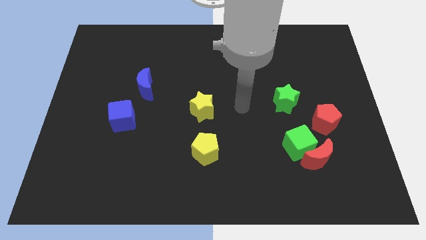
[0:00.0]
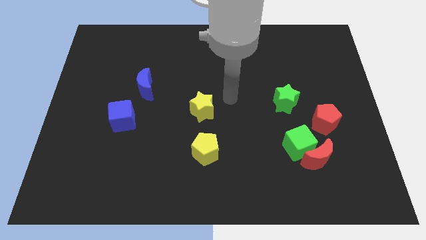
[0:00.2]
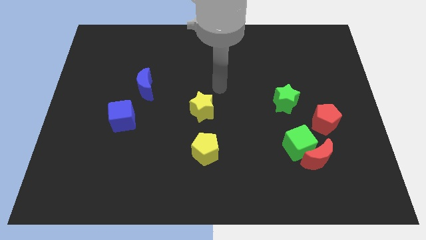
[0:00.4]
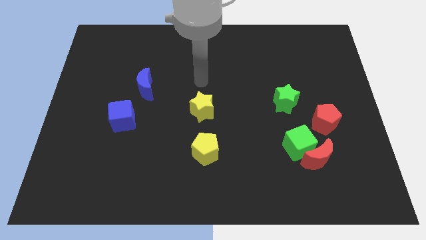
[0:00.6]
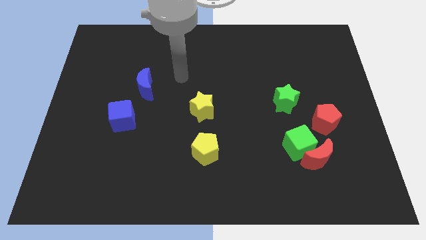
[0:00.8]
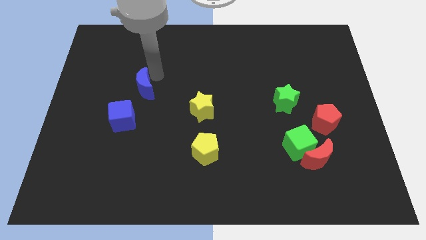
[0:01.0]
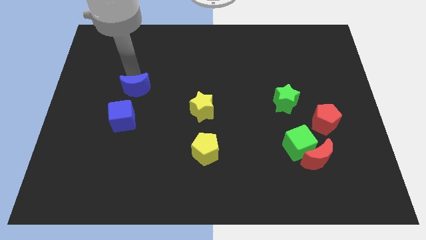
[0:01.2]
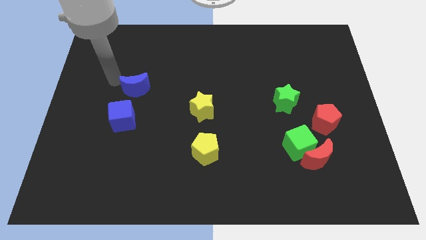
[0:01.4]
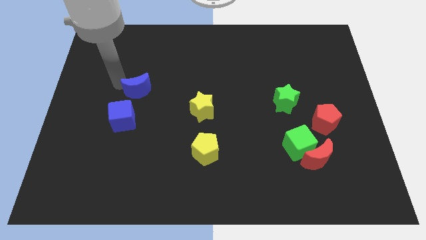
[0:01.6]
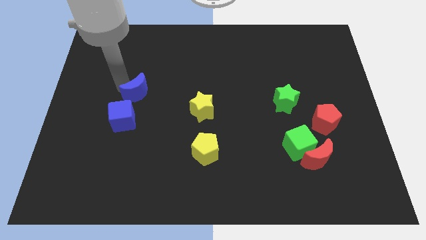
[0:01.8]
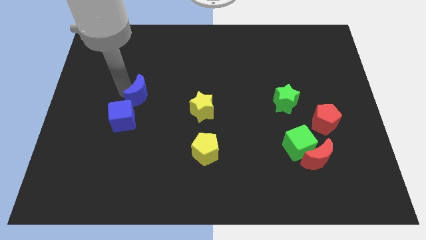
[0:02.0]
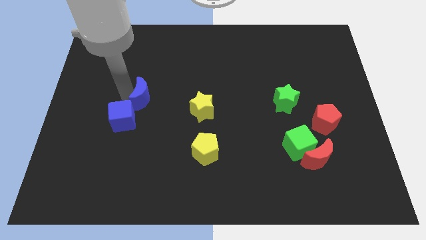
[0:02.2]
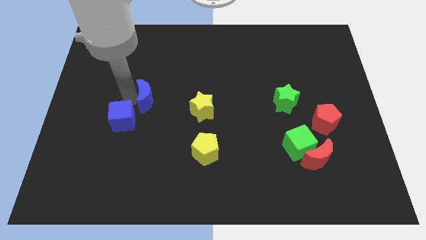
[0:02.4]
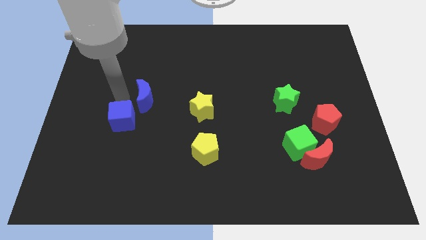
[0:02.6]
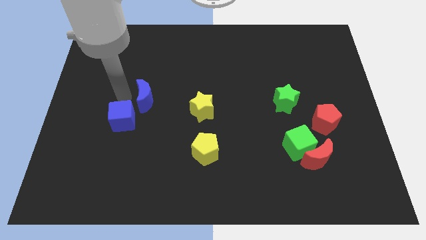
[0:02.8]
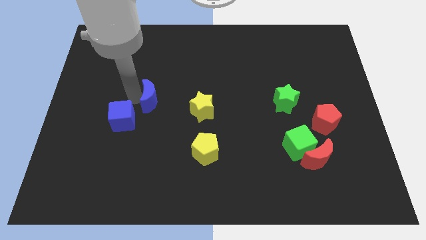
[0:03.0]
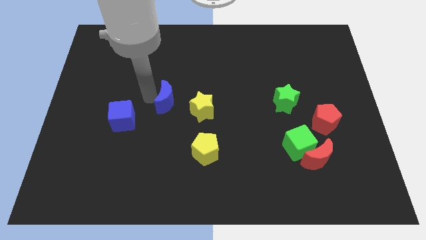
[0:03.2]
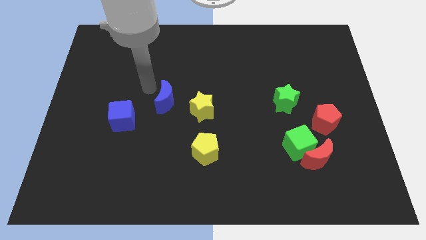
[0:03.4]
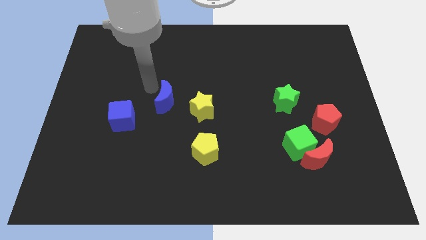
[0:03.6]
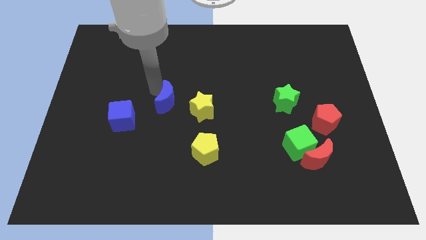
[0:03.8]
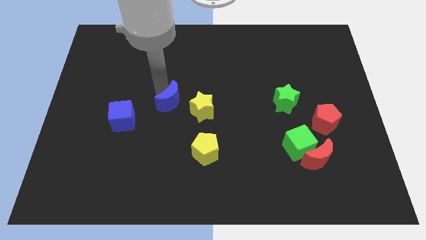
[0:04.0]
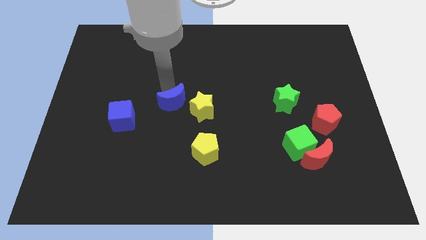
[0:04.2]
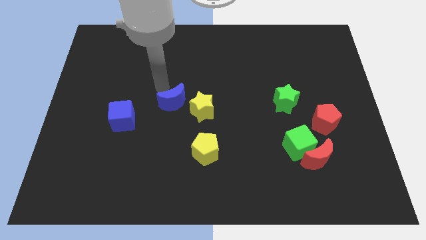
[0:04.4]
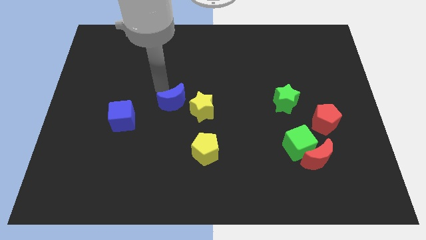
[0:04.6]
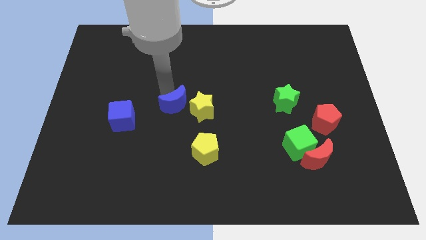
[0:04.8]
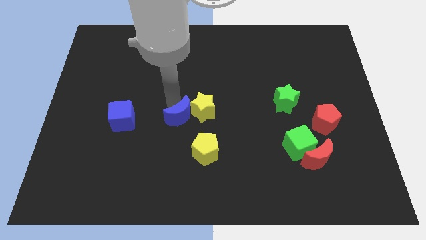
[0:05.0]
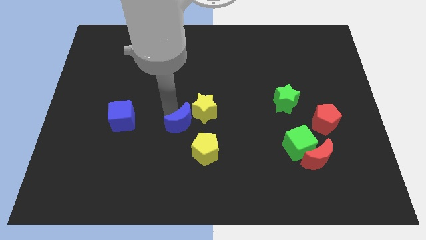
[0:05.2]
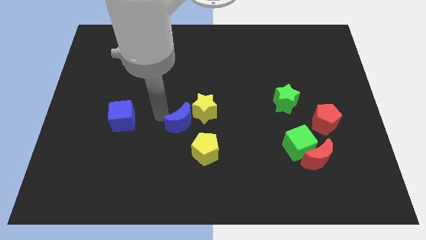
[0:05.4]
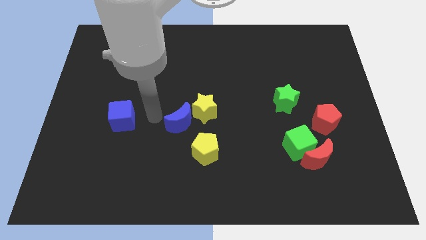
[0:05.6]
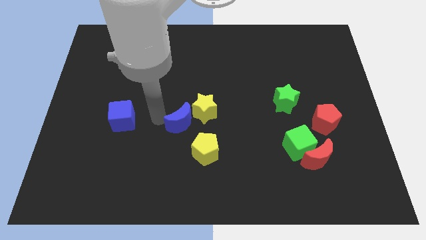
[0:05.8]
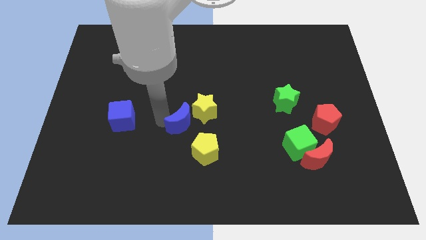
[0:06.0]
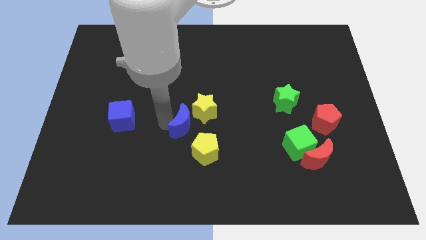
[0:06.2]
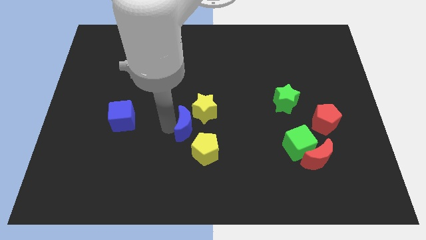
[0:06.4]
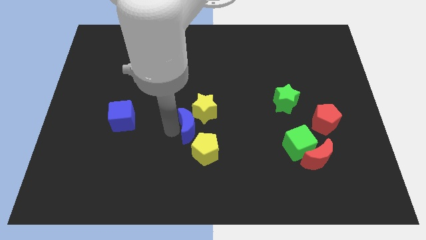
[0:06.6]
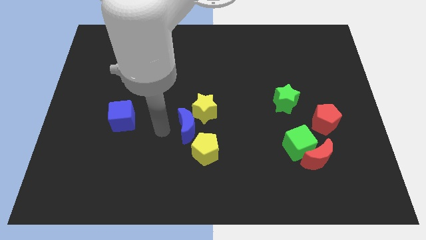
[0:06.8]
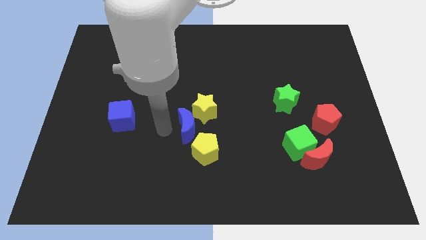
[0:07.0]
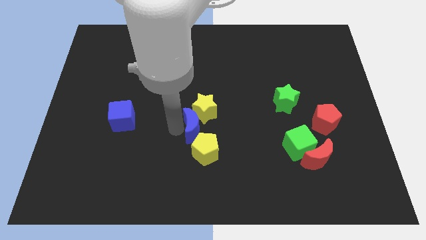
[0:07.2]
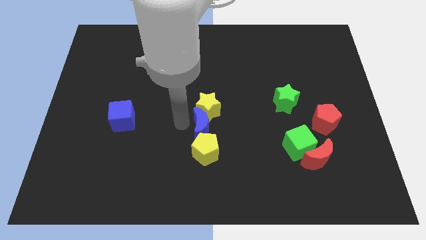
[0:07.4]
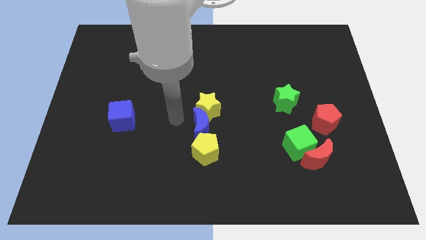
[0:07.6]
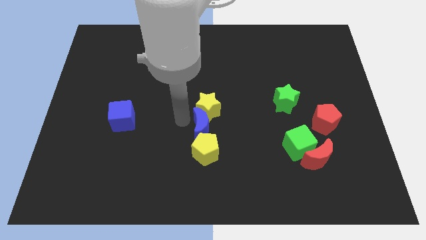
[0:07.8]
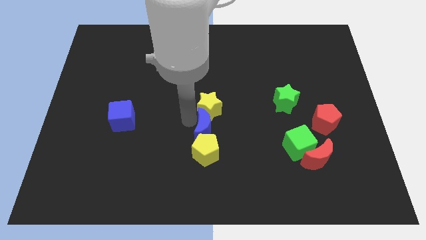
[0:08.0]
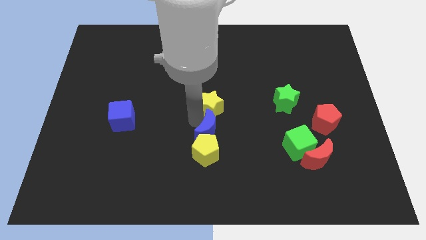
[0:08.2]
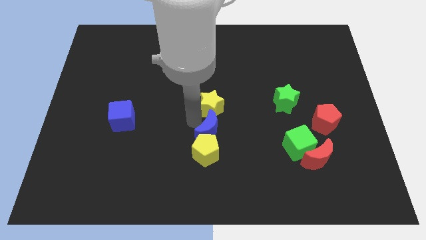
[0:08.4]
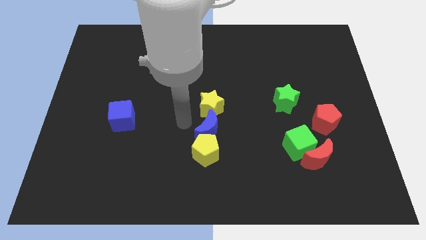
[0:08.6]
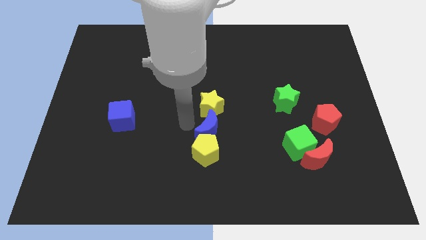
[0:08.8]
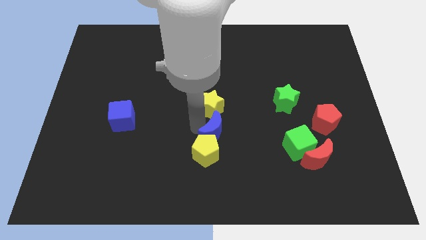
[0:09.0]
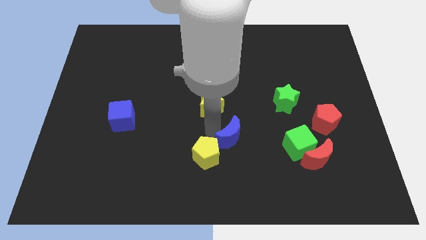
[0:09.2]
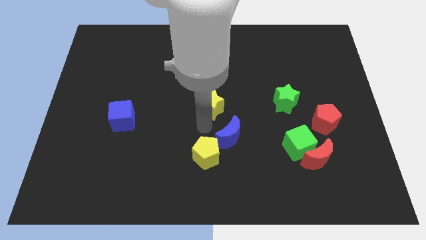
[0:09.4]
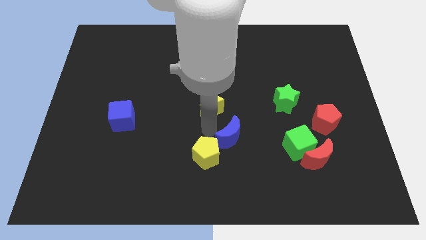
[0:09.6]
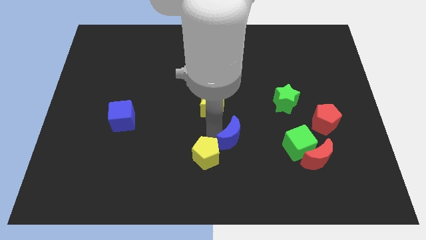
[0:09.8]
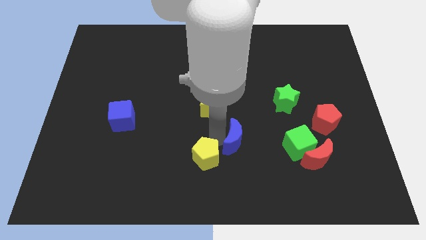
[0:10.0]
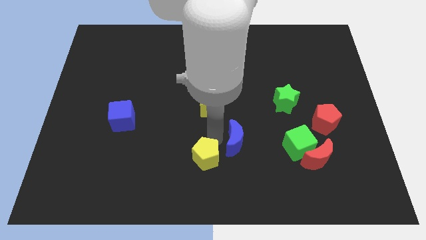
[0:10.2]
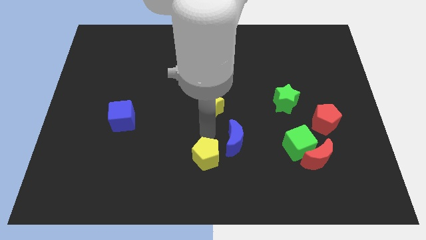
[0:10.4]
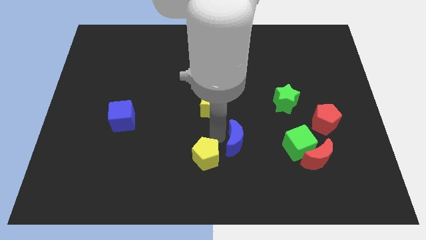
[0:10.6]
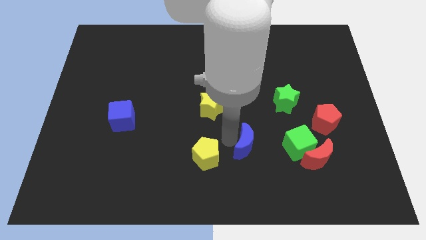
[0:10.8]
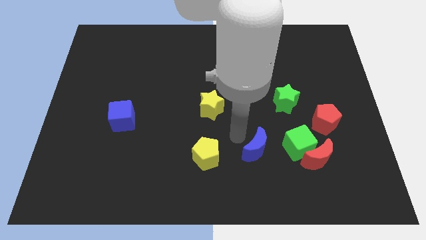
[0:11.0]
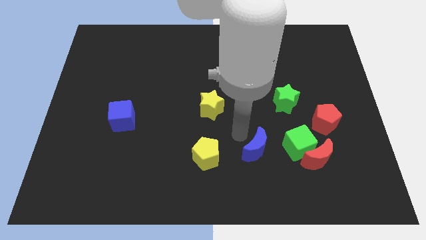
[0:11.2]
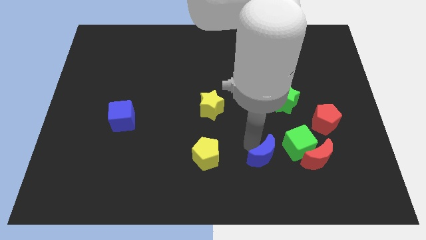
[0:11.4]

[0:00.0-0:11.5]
slide the blue moon diagonally down and to the left of the green cube
